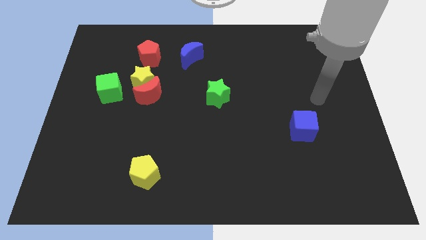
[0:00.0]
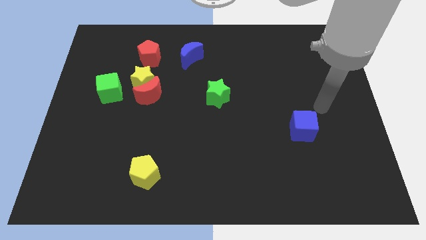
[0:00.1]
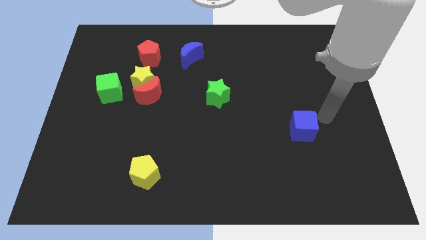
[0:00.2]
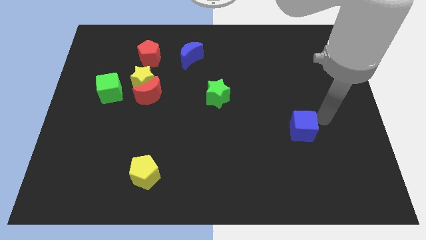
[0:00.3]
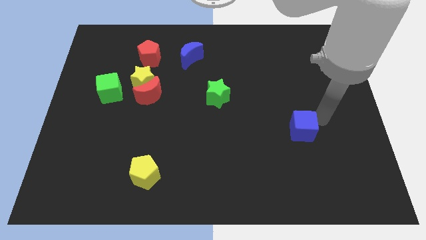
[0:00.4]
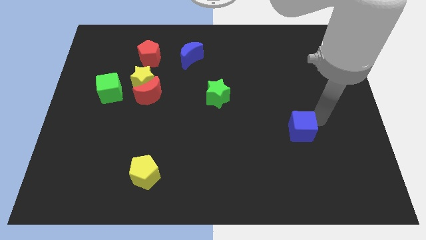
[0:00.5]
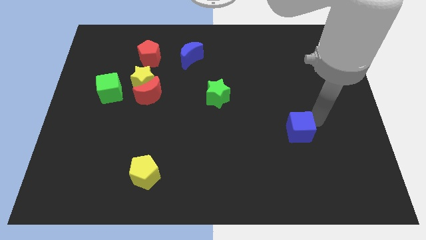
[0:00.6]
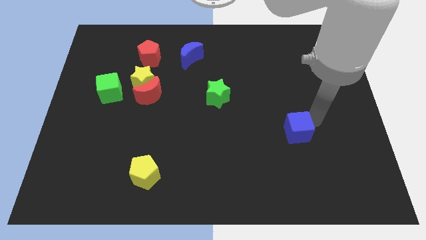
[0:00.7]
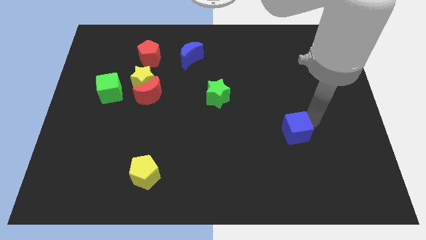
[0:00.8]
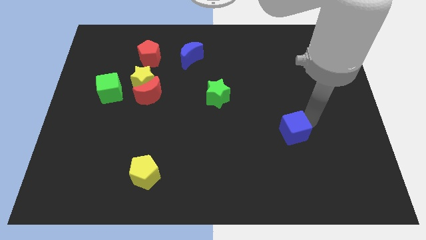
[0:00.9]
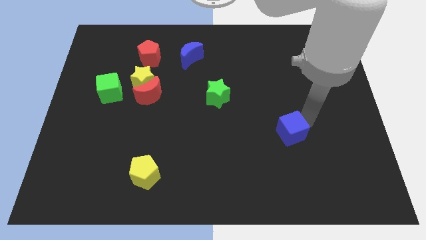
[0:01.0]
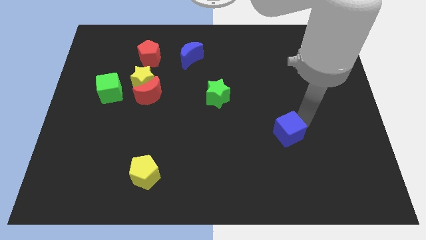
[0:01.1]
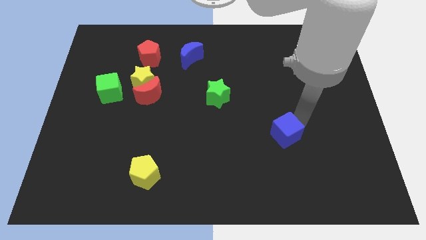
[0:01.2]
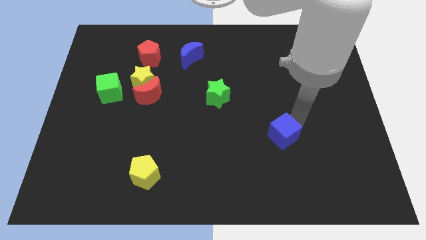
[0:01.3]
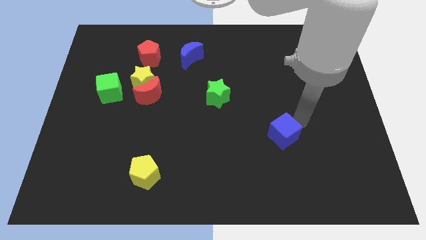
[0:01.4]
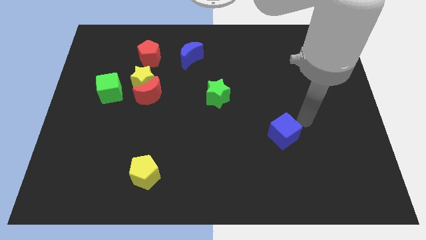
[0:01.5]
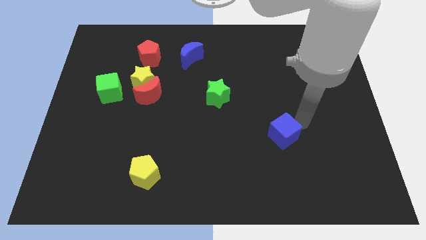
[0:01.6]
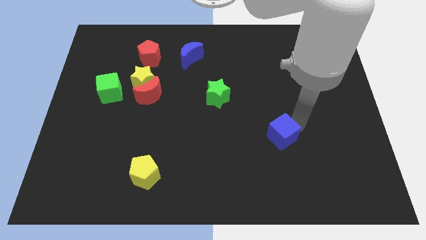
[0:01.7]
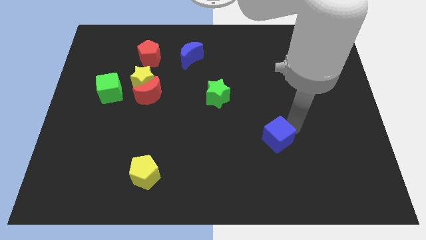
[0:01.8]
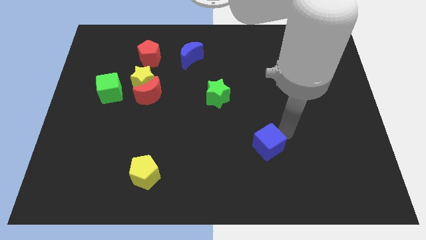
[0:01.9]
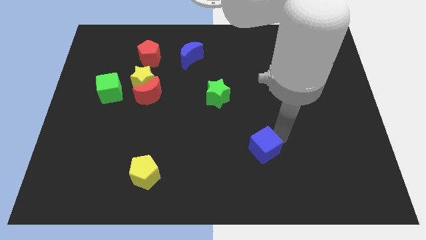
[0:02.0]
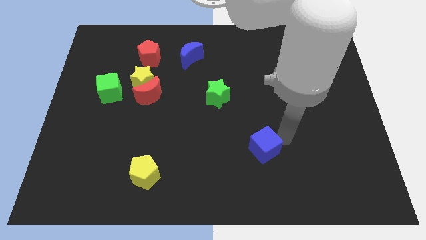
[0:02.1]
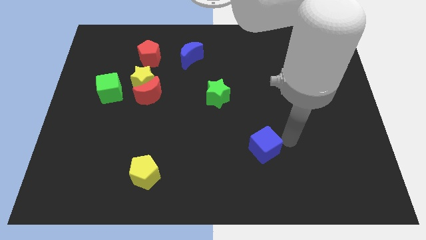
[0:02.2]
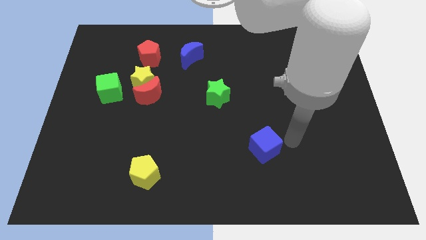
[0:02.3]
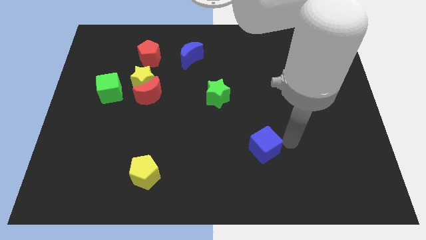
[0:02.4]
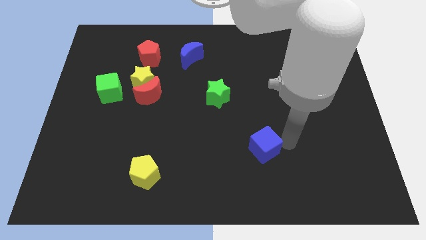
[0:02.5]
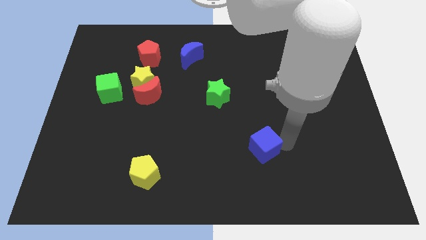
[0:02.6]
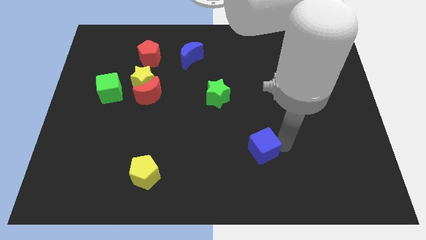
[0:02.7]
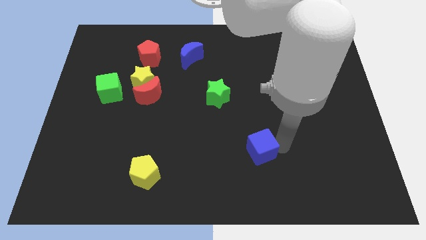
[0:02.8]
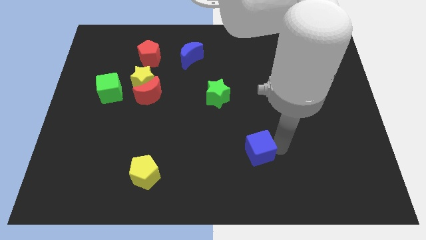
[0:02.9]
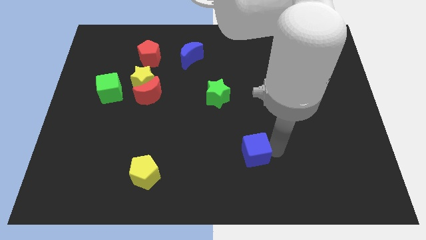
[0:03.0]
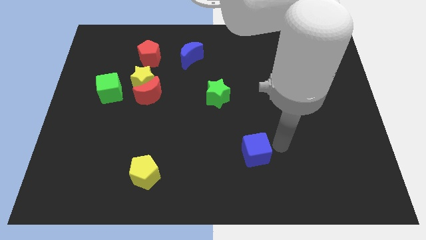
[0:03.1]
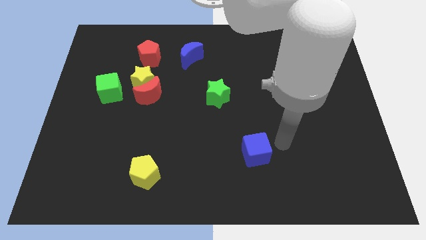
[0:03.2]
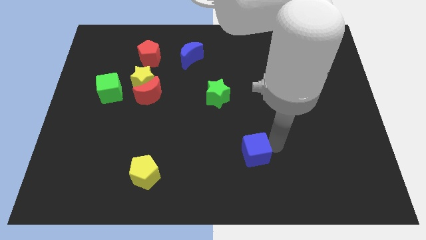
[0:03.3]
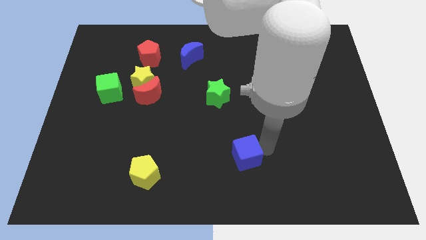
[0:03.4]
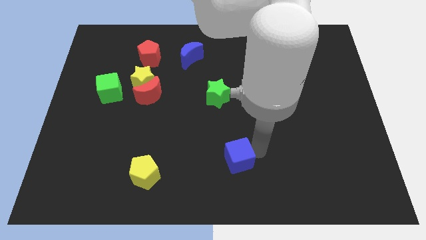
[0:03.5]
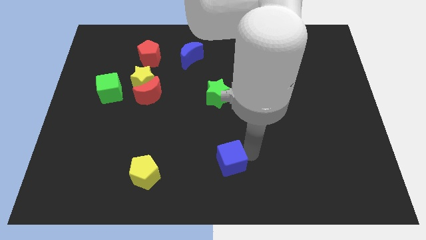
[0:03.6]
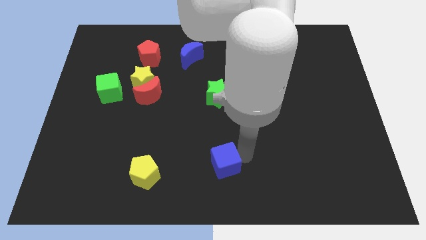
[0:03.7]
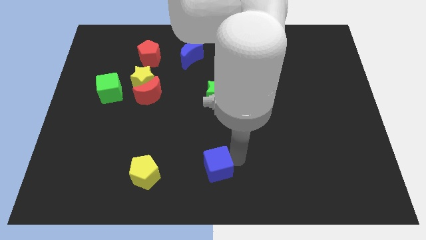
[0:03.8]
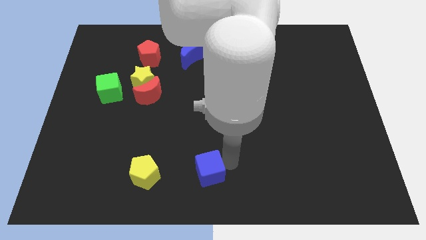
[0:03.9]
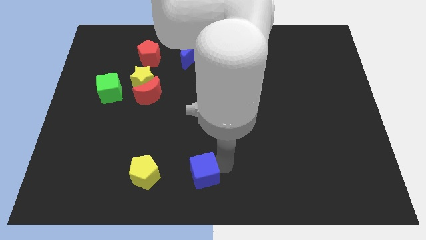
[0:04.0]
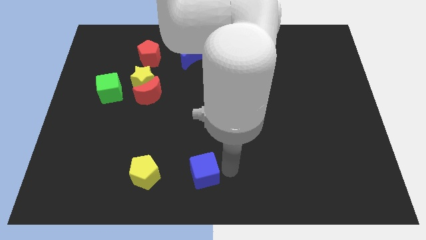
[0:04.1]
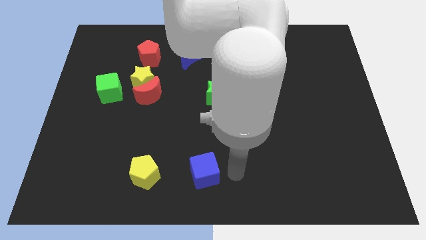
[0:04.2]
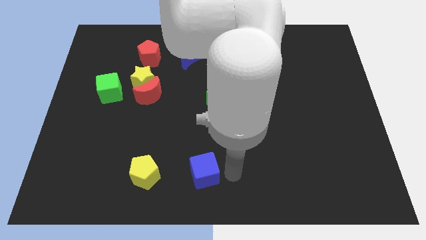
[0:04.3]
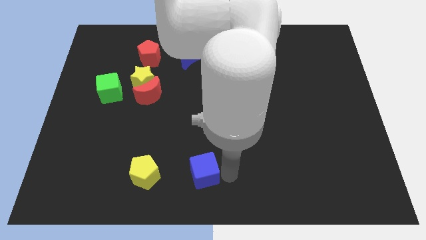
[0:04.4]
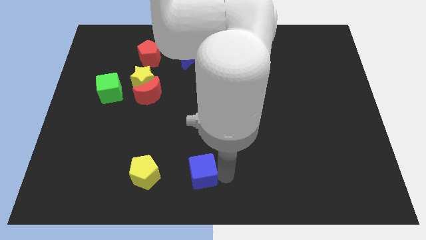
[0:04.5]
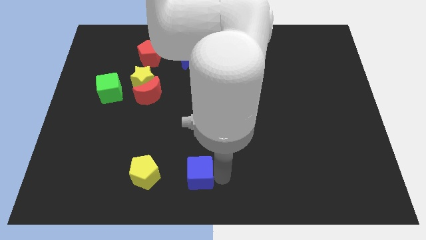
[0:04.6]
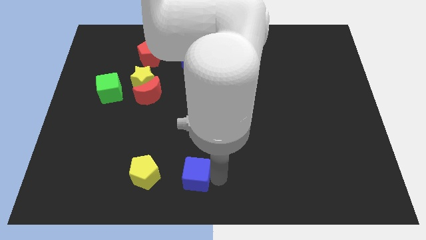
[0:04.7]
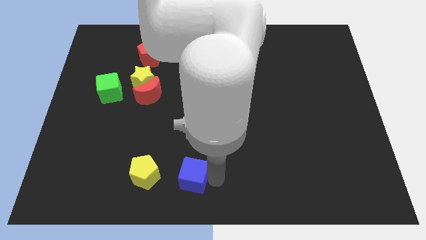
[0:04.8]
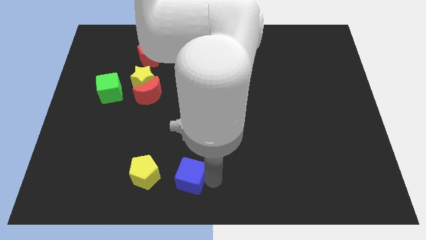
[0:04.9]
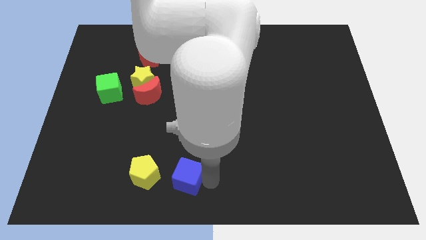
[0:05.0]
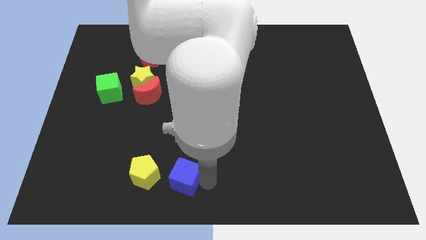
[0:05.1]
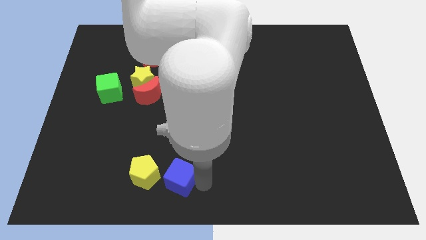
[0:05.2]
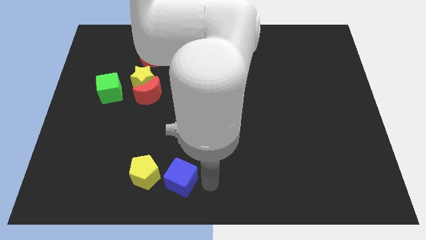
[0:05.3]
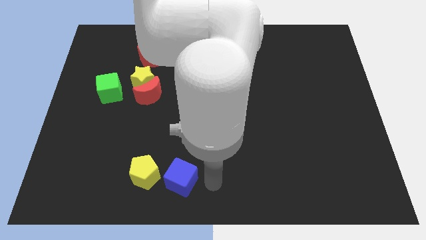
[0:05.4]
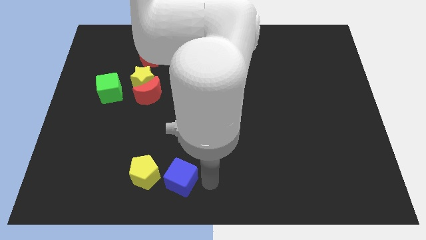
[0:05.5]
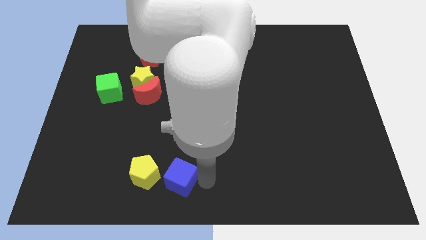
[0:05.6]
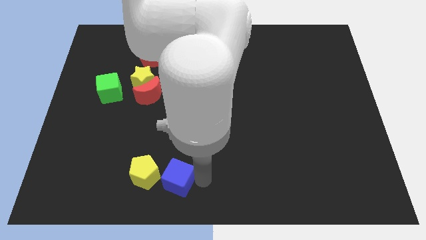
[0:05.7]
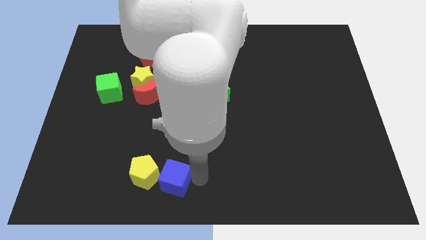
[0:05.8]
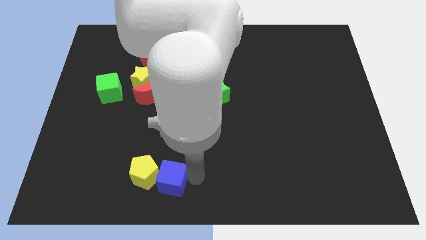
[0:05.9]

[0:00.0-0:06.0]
move the blue cube to the yellow pentagon

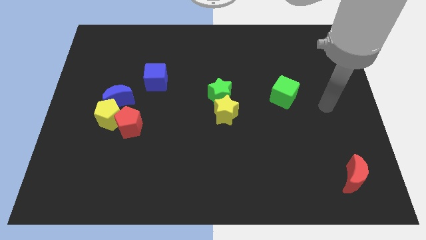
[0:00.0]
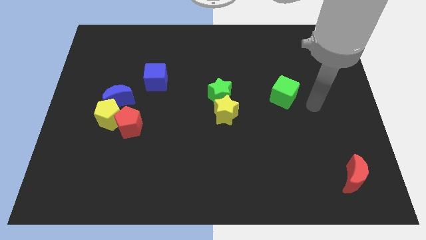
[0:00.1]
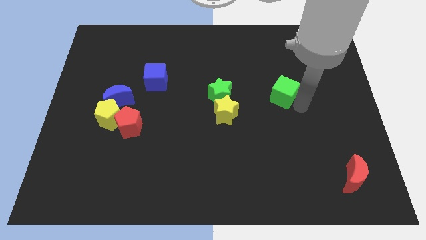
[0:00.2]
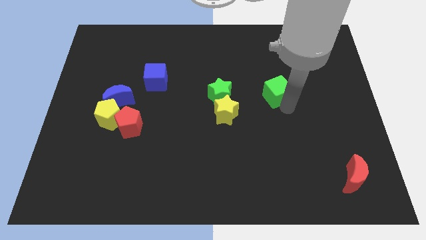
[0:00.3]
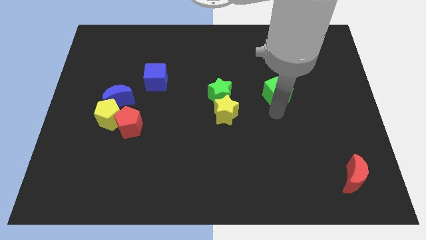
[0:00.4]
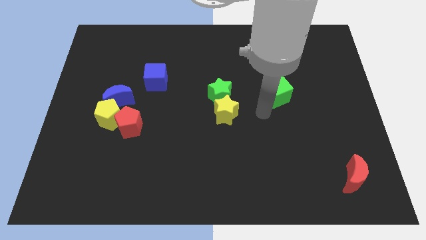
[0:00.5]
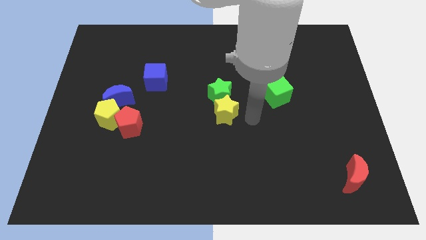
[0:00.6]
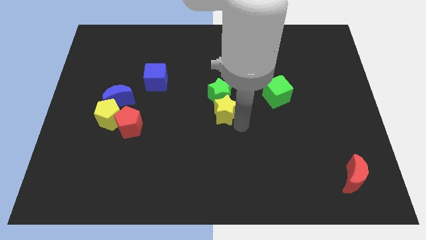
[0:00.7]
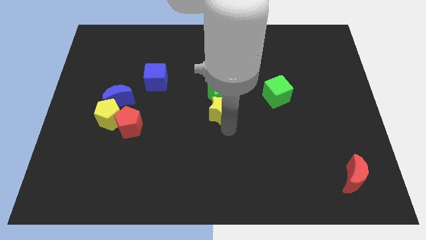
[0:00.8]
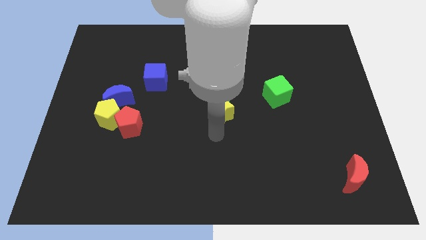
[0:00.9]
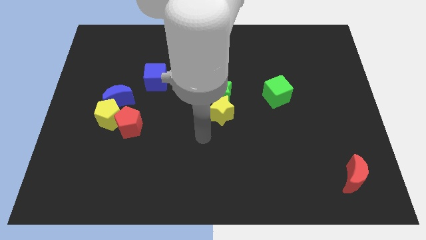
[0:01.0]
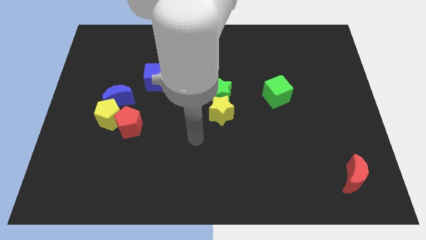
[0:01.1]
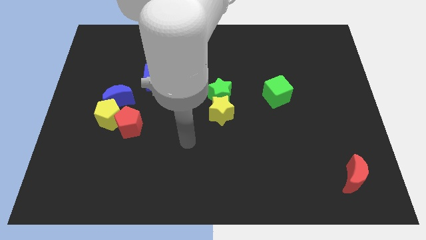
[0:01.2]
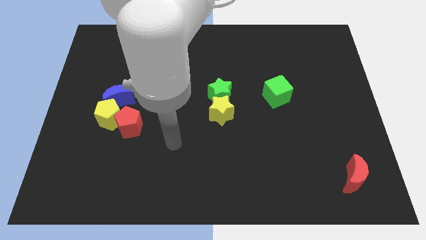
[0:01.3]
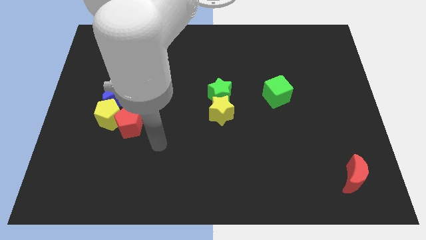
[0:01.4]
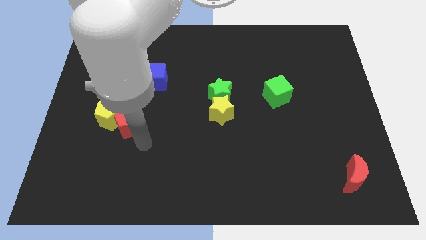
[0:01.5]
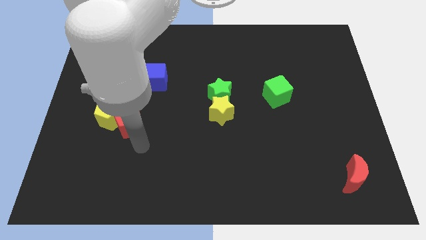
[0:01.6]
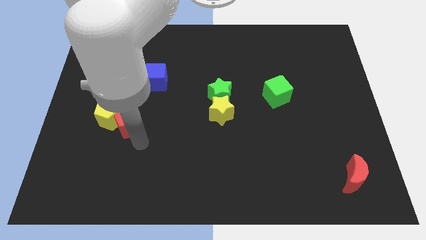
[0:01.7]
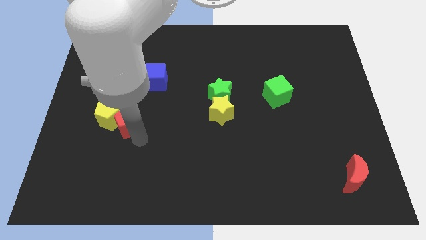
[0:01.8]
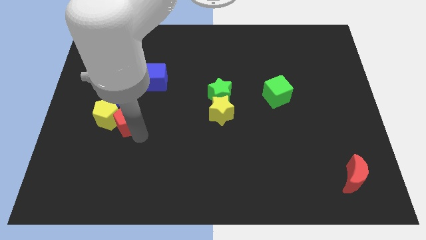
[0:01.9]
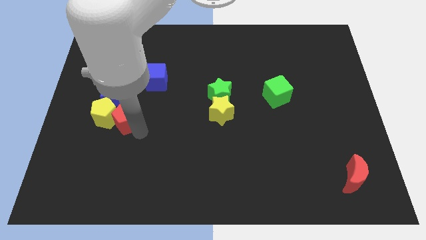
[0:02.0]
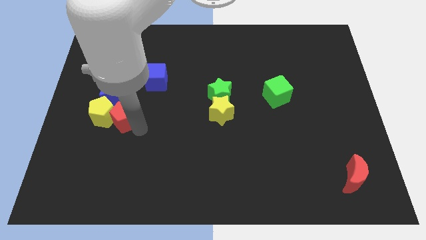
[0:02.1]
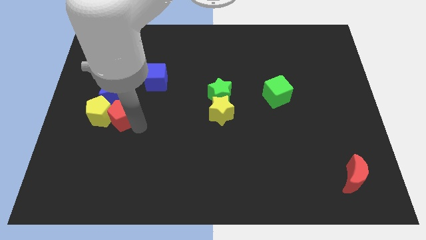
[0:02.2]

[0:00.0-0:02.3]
push the red pentagon towards the blue moon
